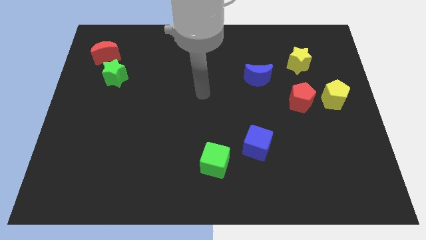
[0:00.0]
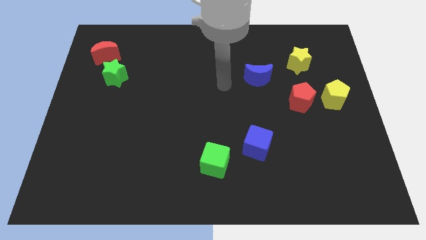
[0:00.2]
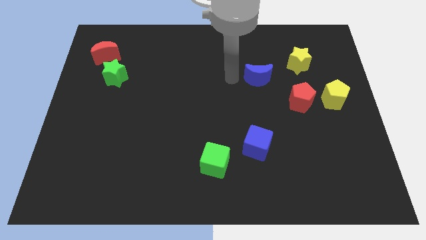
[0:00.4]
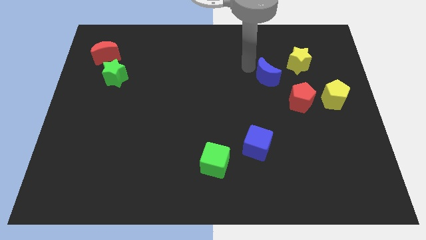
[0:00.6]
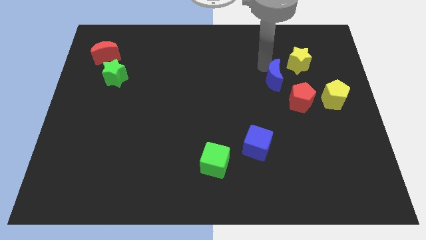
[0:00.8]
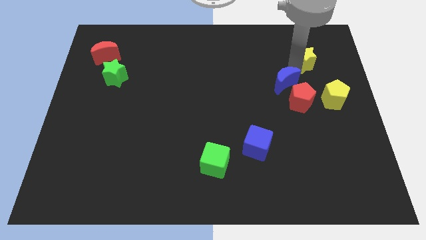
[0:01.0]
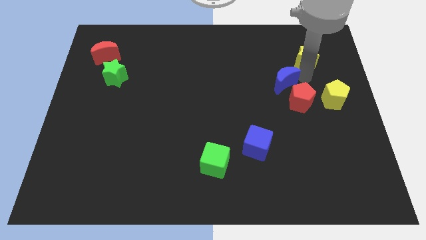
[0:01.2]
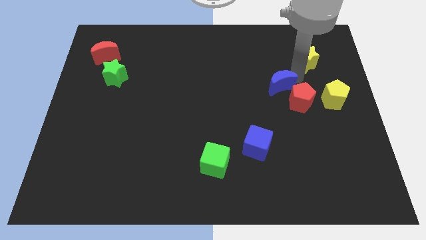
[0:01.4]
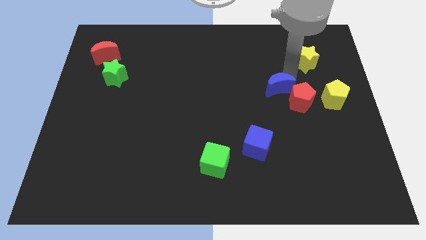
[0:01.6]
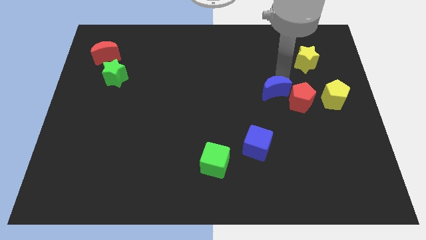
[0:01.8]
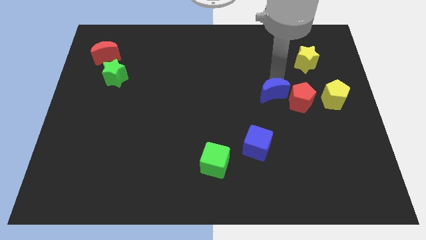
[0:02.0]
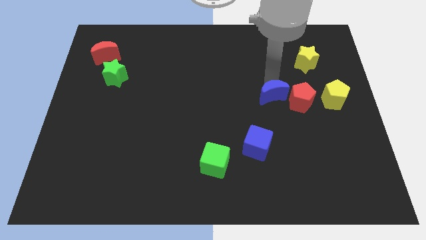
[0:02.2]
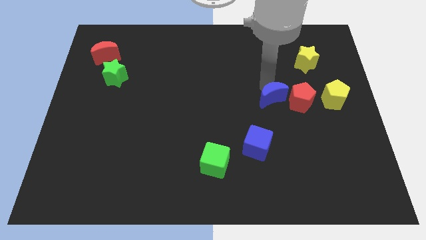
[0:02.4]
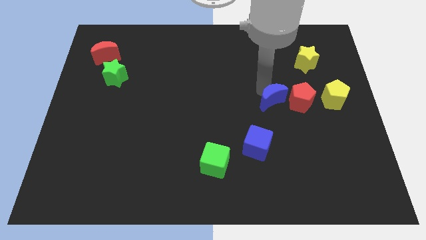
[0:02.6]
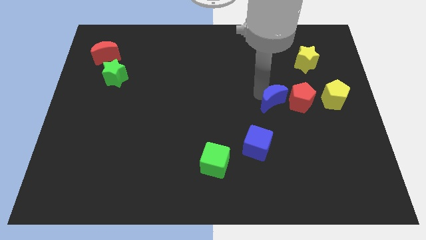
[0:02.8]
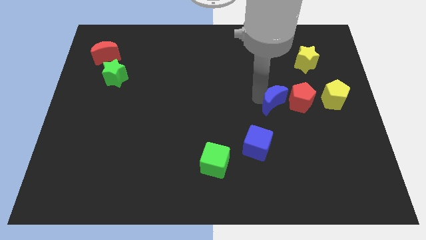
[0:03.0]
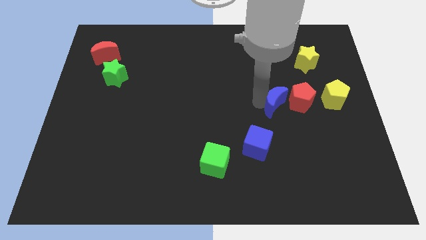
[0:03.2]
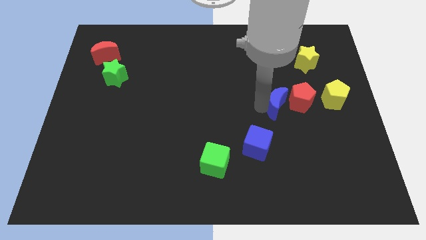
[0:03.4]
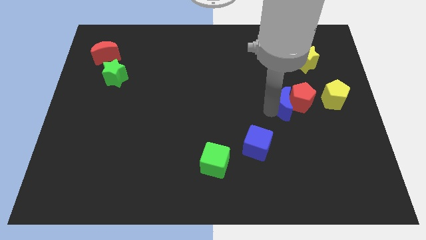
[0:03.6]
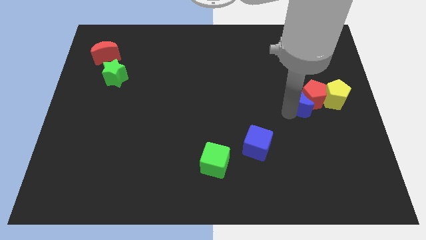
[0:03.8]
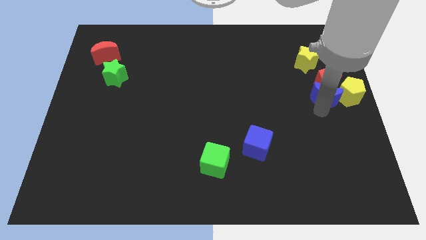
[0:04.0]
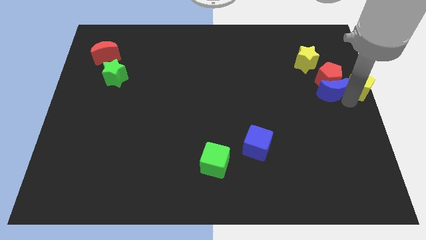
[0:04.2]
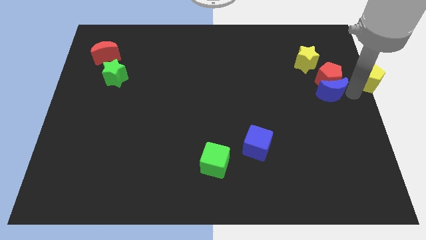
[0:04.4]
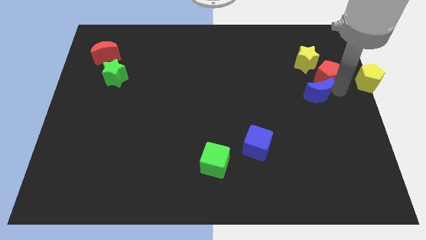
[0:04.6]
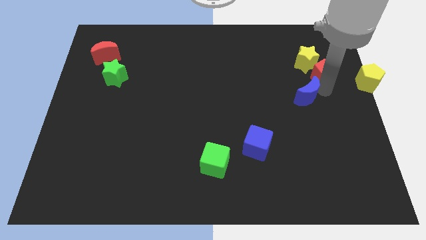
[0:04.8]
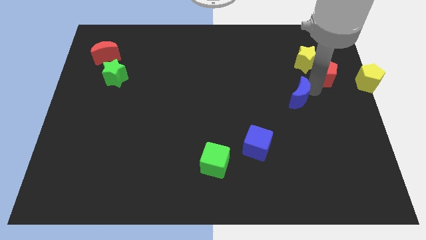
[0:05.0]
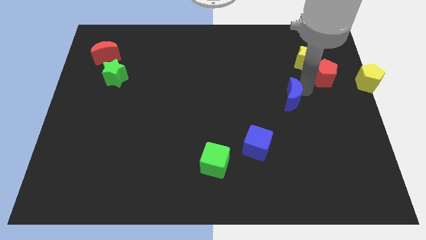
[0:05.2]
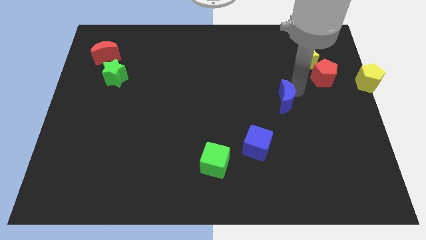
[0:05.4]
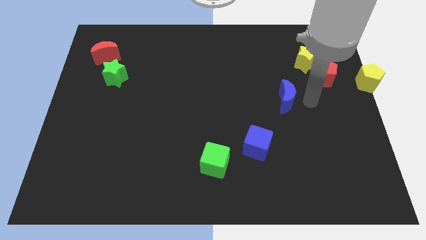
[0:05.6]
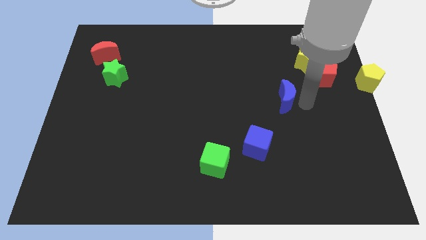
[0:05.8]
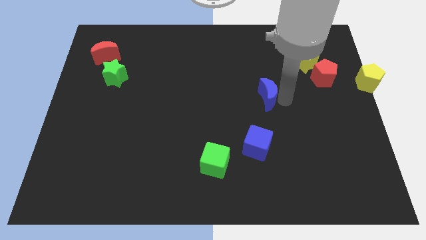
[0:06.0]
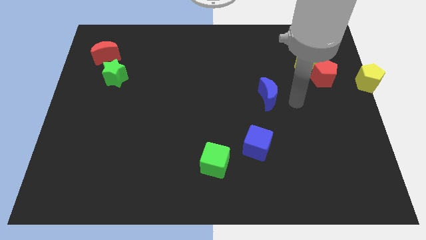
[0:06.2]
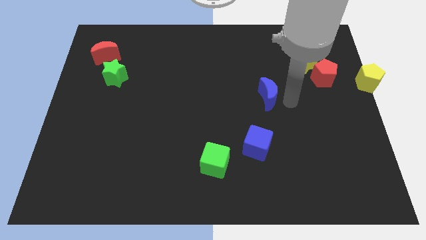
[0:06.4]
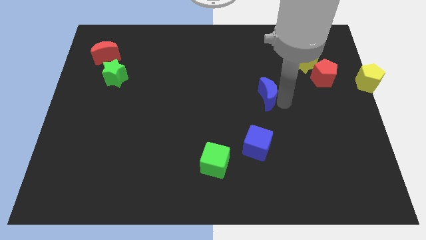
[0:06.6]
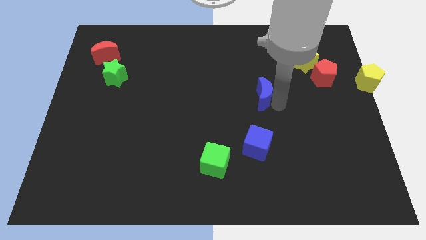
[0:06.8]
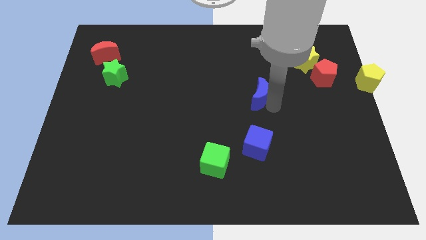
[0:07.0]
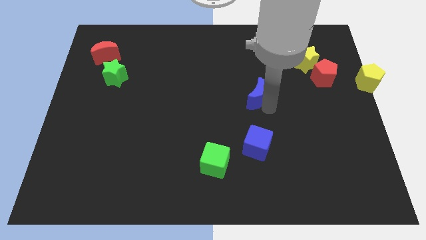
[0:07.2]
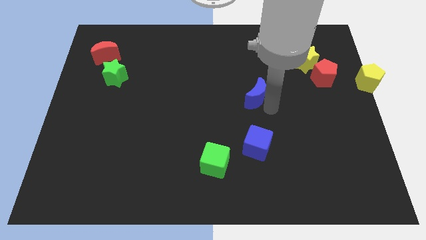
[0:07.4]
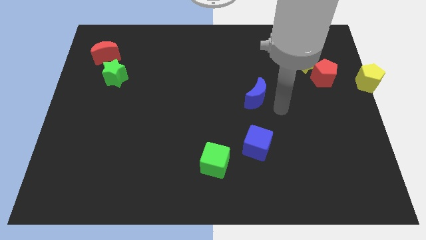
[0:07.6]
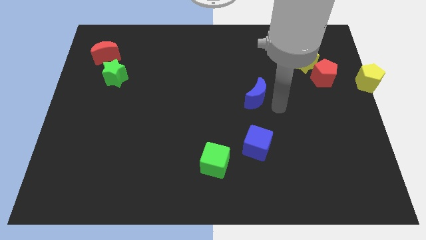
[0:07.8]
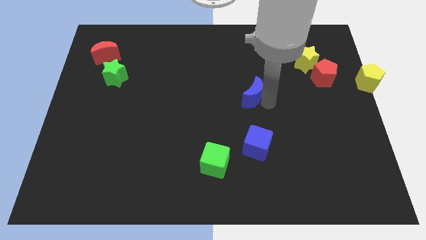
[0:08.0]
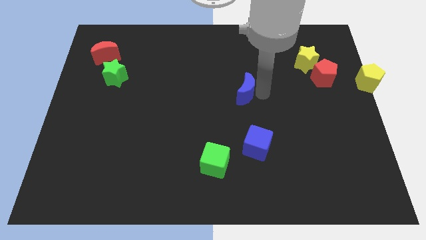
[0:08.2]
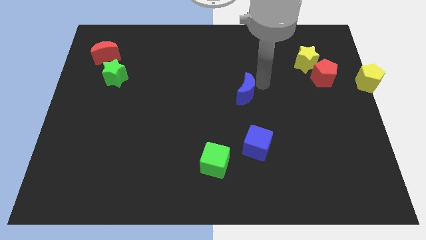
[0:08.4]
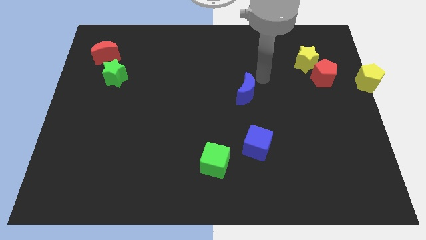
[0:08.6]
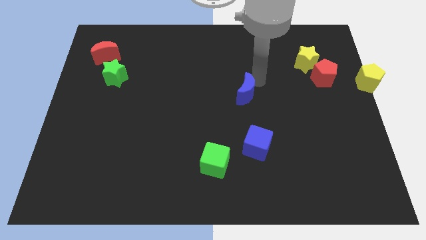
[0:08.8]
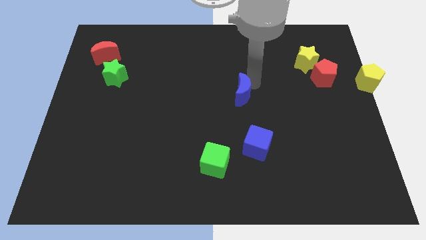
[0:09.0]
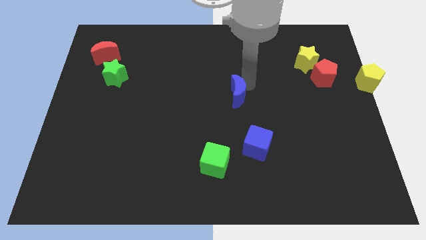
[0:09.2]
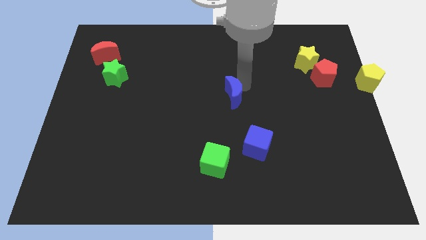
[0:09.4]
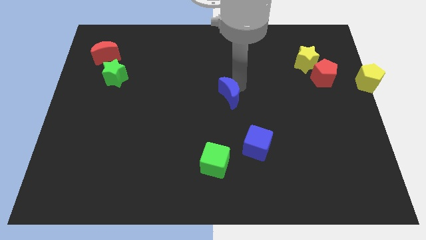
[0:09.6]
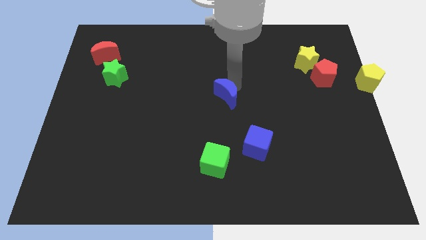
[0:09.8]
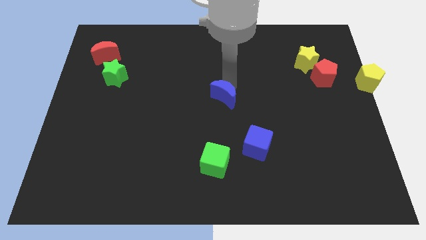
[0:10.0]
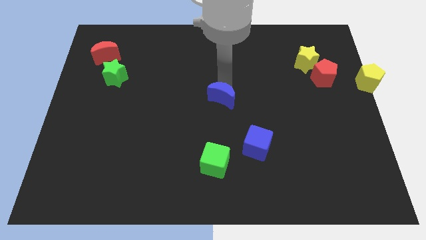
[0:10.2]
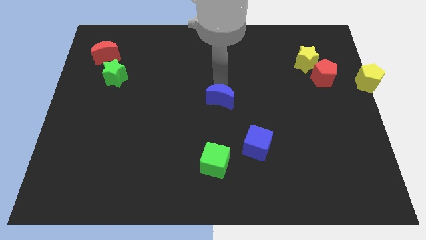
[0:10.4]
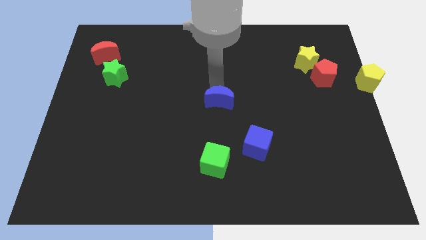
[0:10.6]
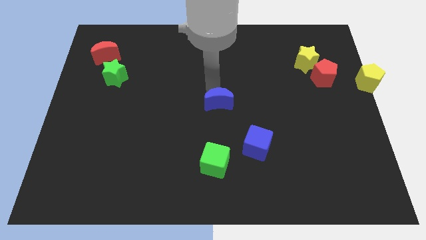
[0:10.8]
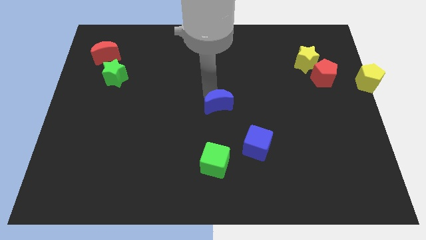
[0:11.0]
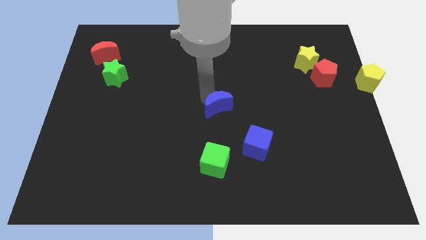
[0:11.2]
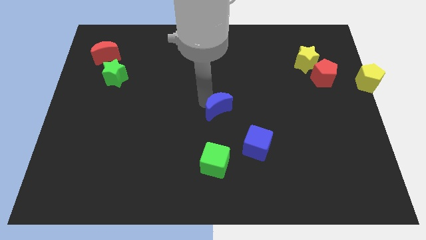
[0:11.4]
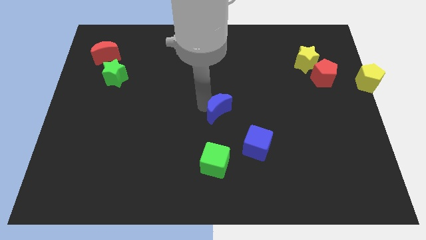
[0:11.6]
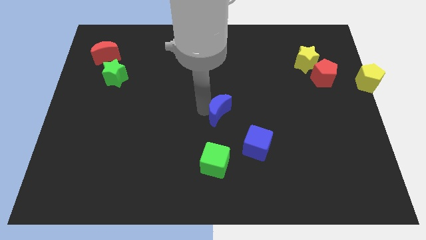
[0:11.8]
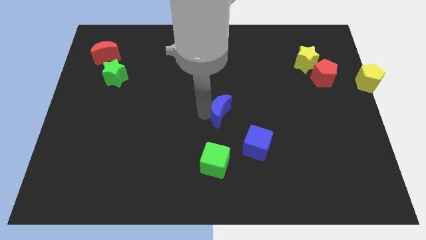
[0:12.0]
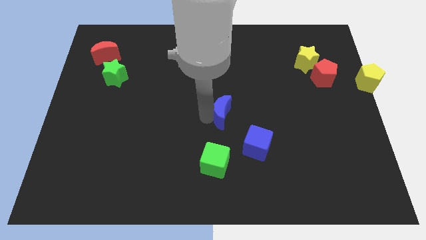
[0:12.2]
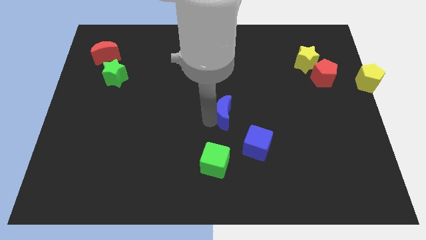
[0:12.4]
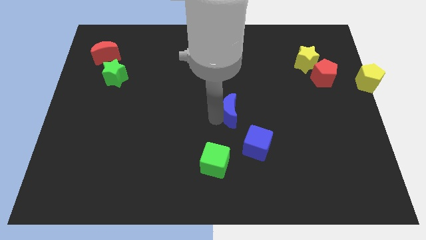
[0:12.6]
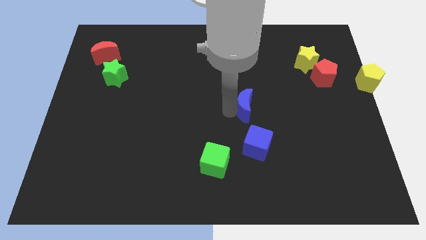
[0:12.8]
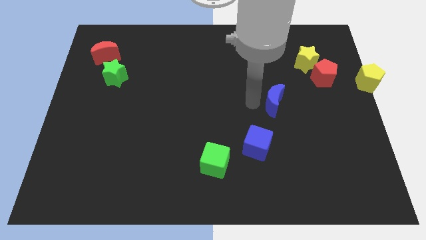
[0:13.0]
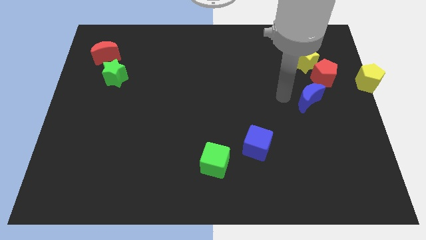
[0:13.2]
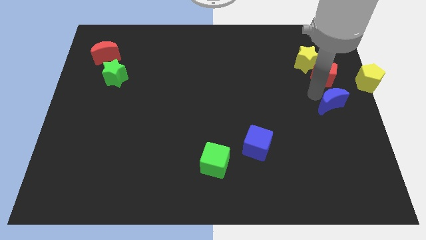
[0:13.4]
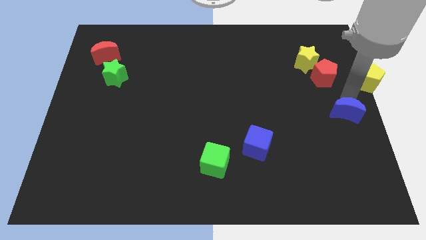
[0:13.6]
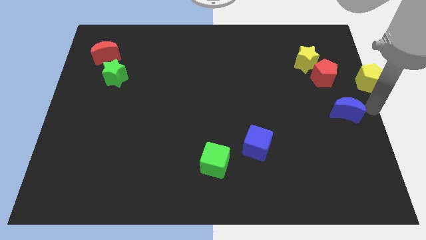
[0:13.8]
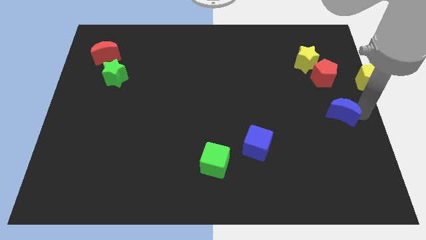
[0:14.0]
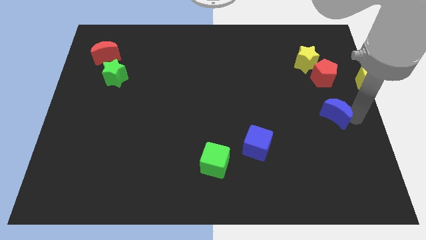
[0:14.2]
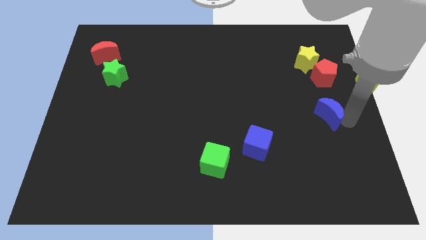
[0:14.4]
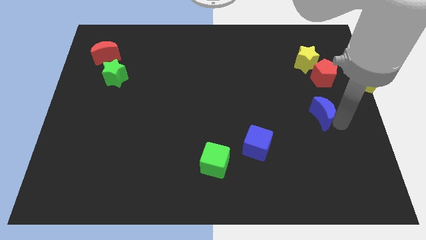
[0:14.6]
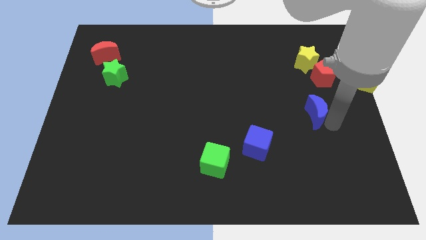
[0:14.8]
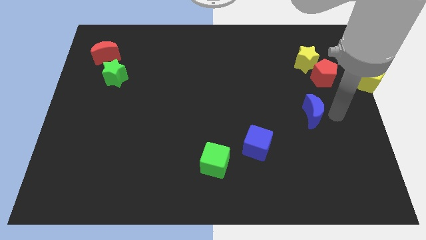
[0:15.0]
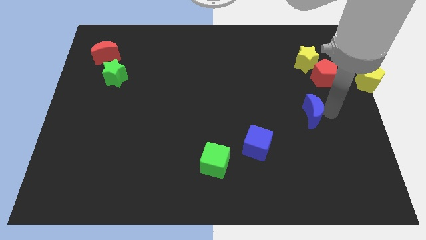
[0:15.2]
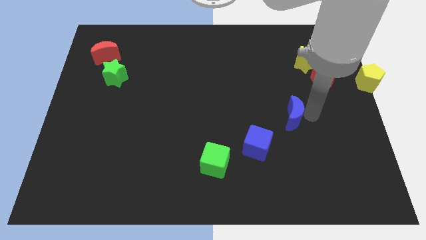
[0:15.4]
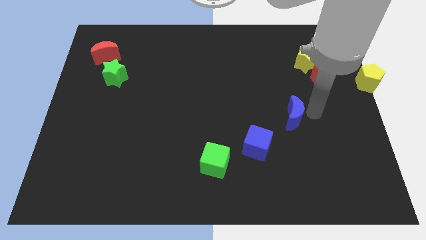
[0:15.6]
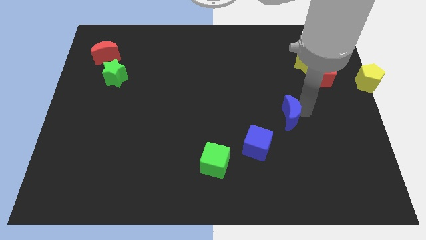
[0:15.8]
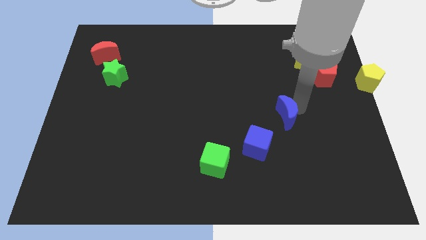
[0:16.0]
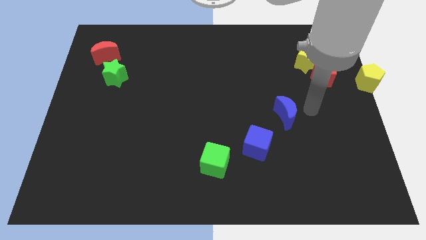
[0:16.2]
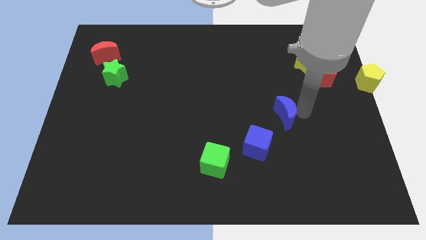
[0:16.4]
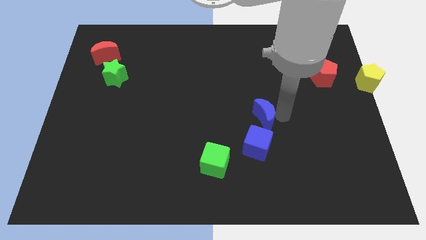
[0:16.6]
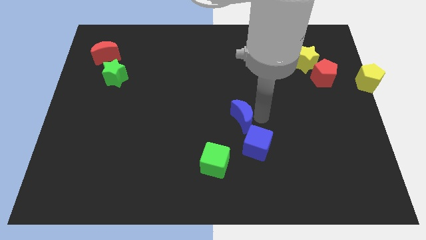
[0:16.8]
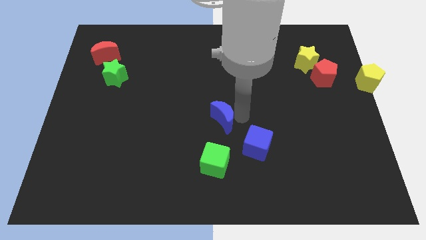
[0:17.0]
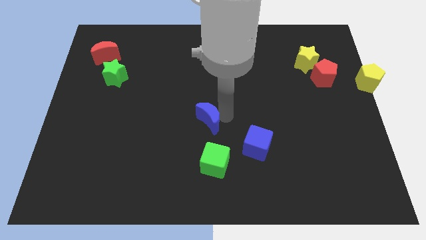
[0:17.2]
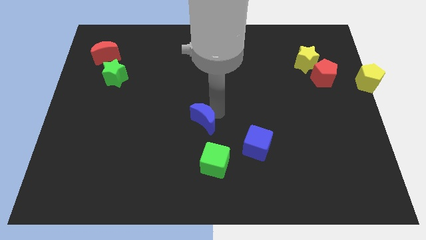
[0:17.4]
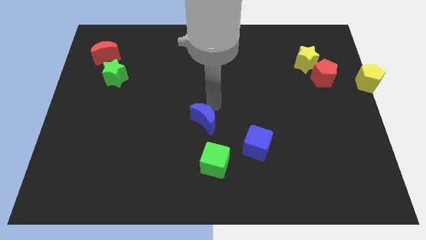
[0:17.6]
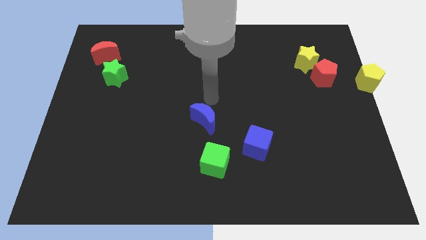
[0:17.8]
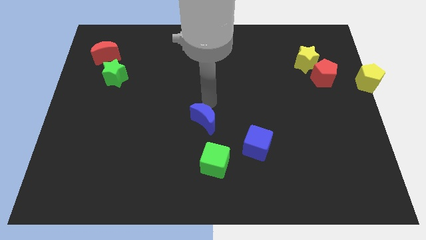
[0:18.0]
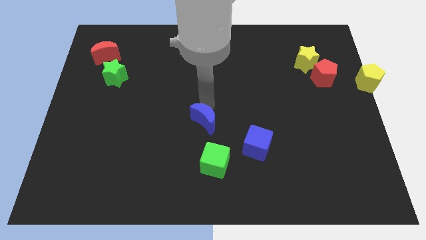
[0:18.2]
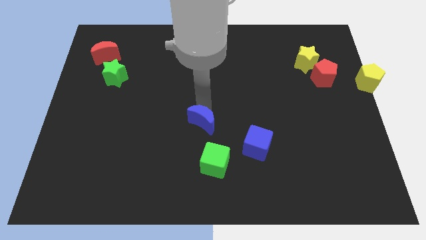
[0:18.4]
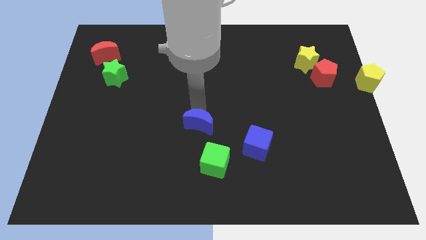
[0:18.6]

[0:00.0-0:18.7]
push the blue moon to the top left of the green cube
